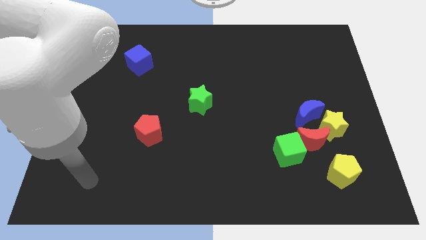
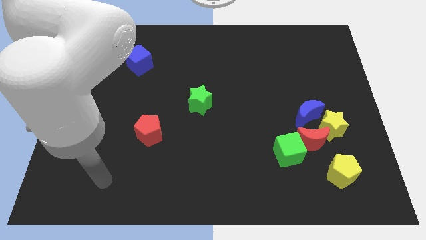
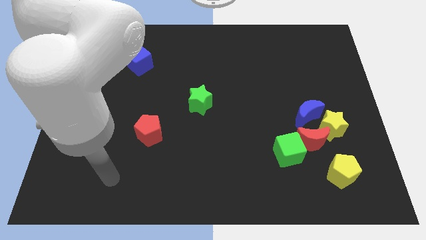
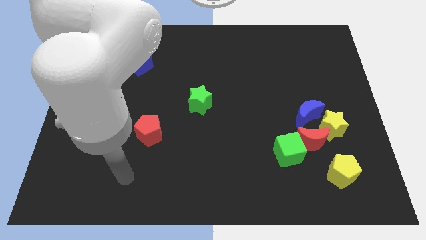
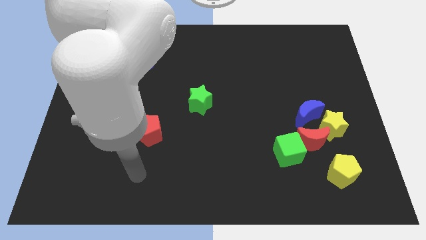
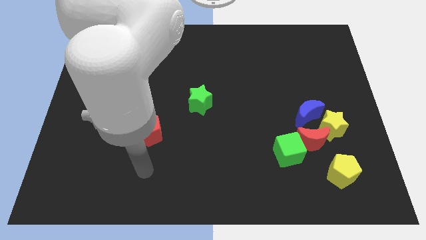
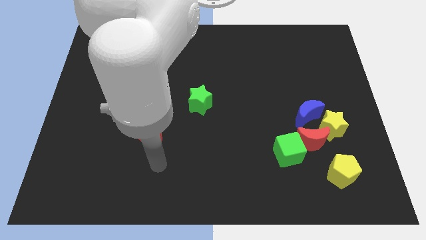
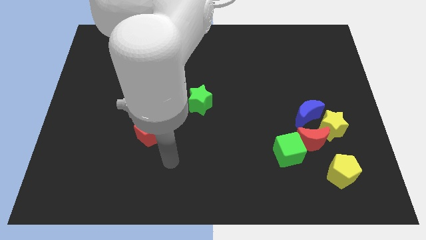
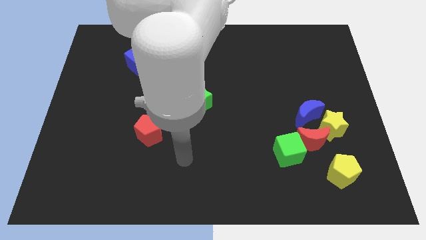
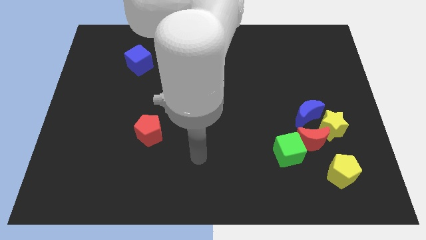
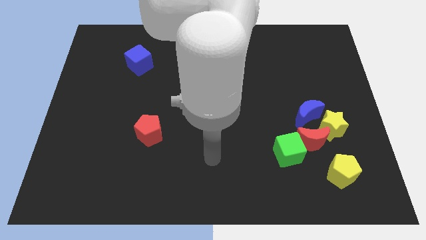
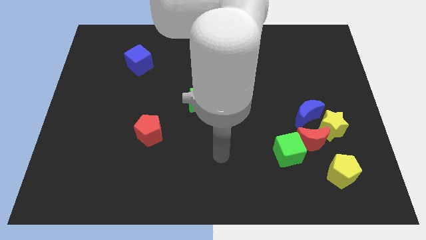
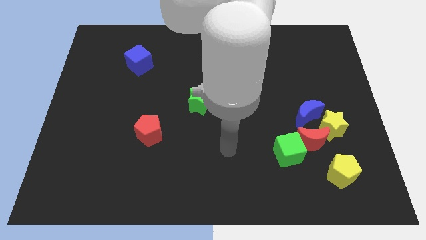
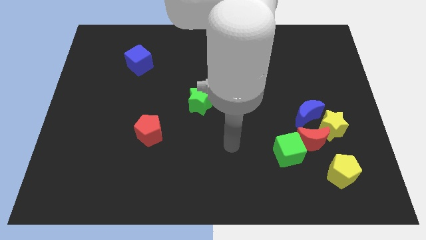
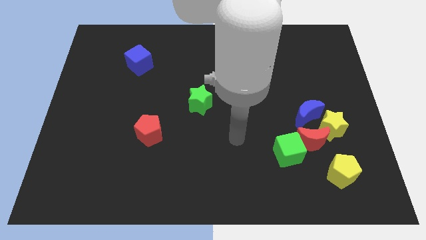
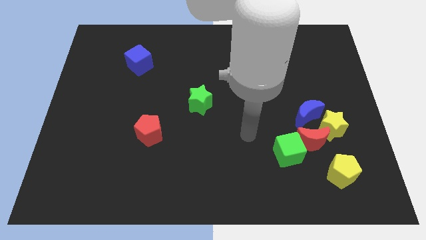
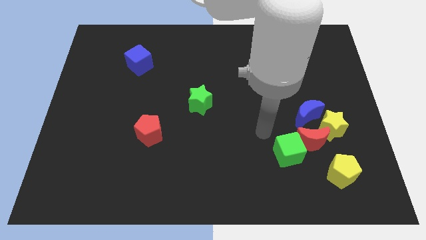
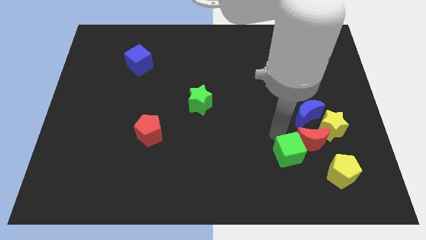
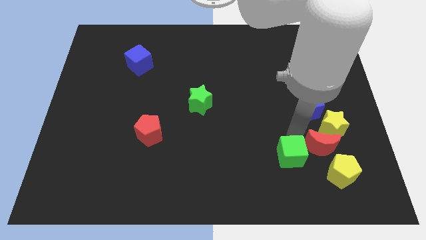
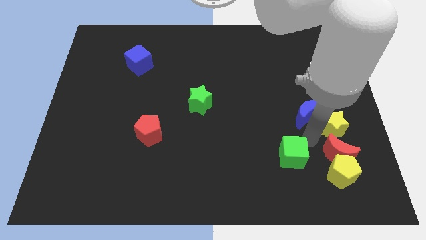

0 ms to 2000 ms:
pull the green cube apart from the red moon

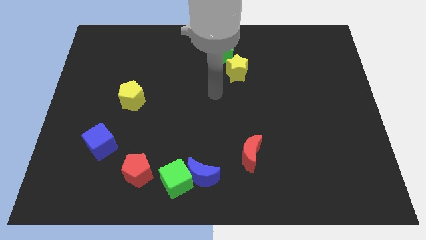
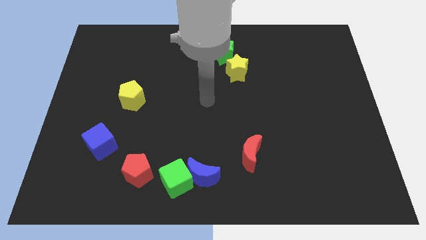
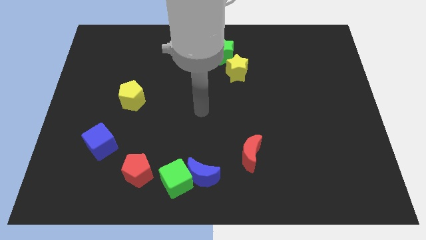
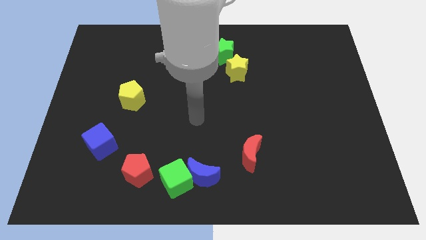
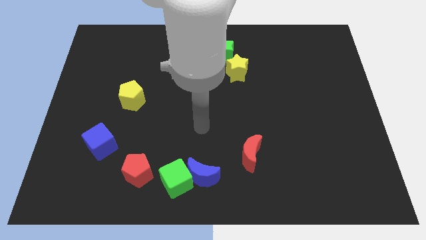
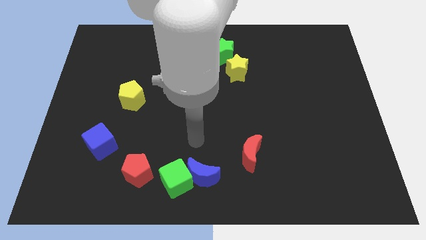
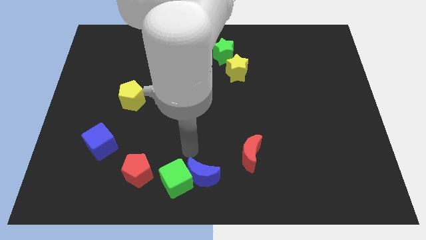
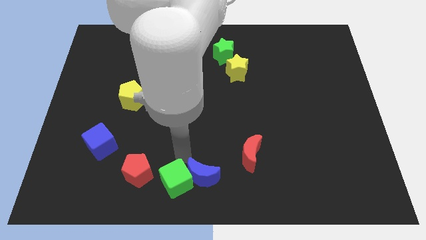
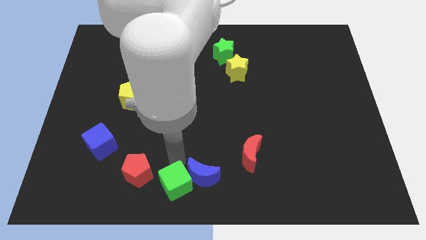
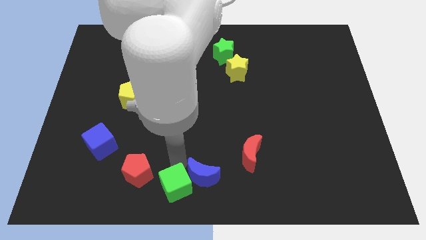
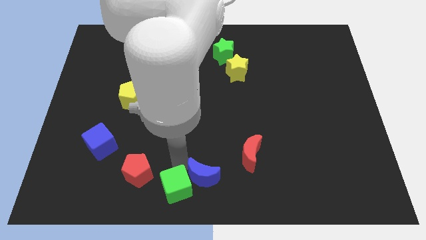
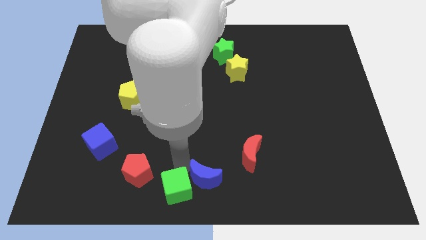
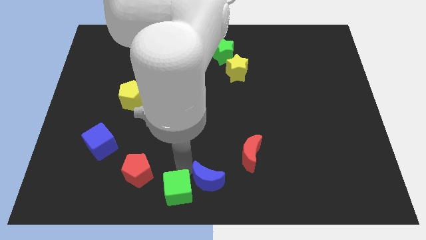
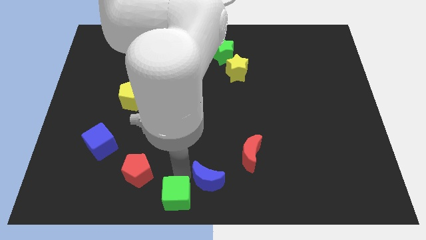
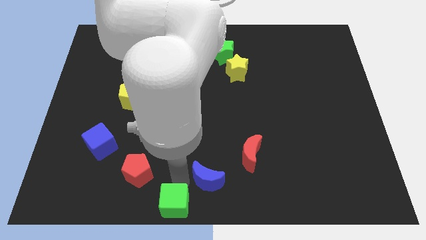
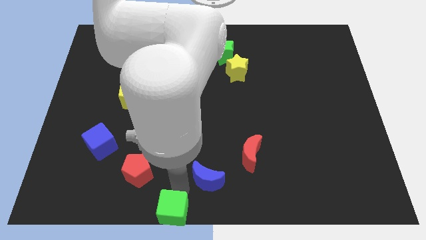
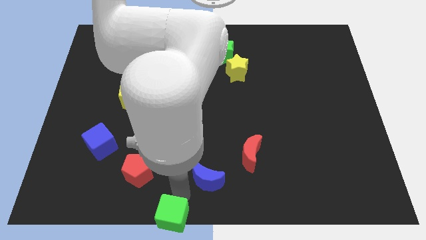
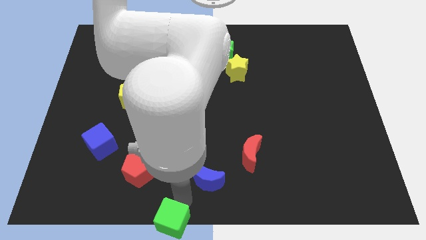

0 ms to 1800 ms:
separate the blue moon from the green cube

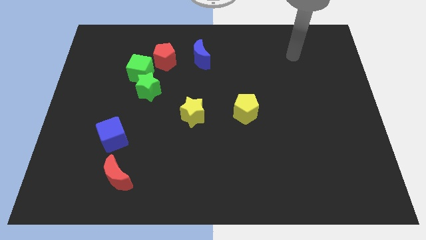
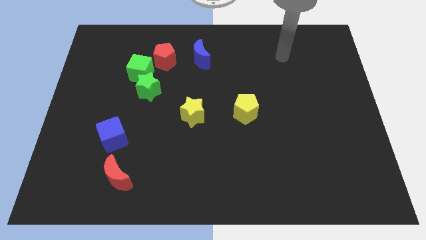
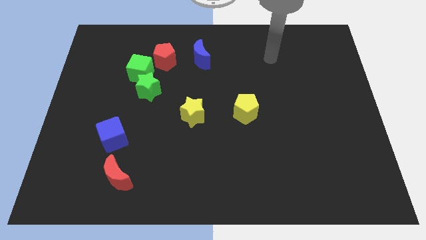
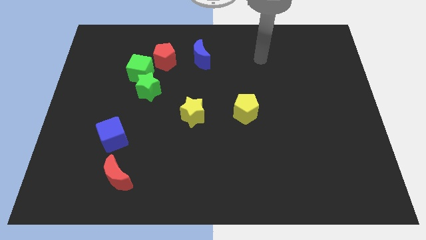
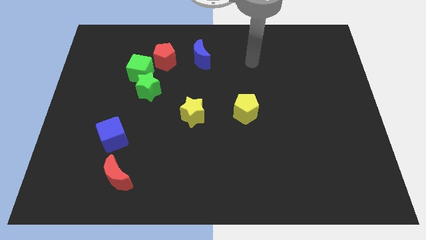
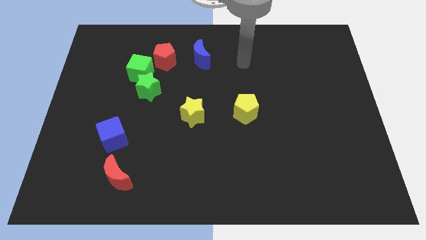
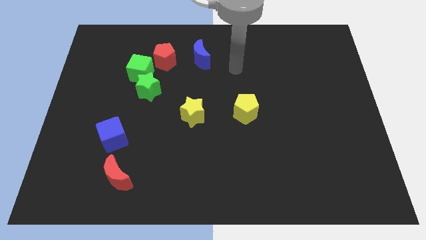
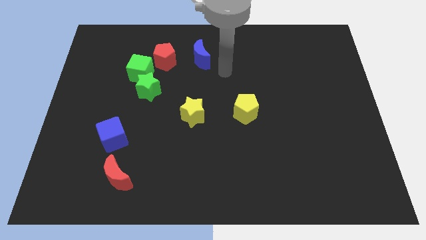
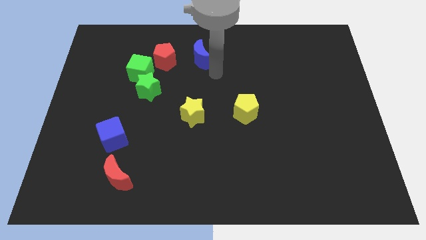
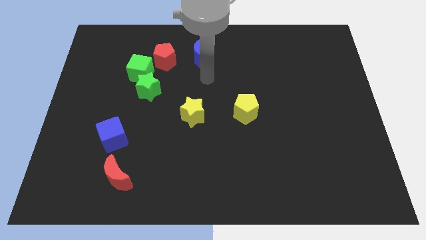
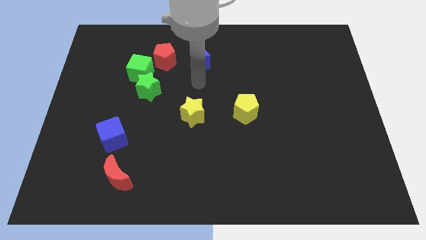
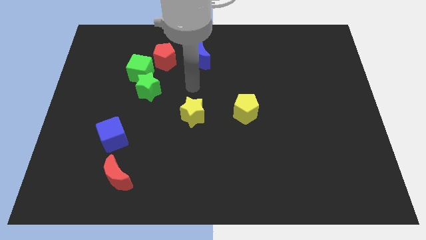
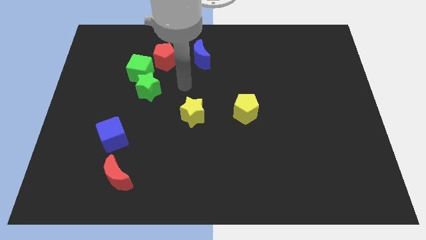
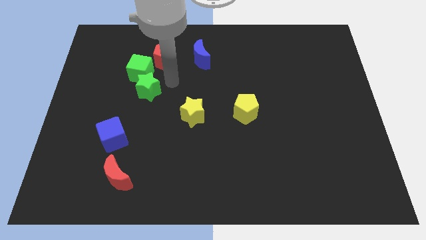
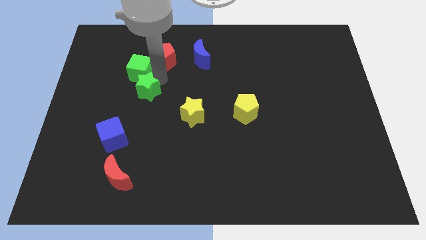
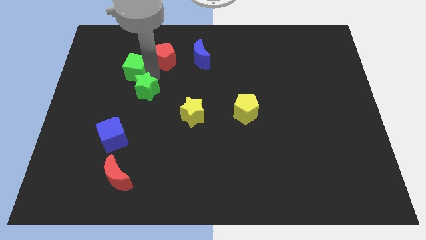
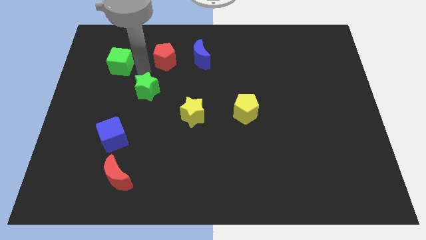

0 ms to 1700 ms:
pull the green star apart from the green cube

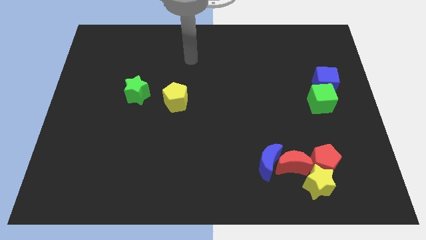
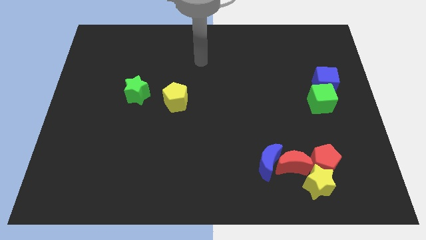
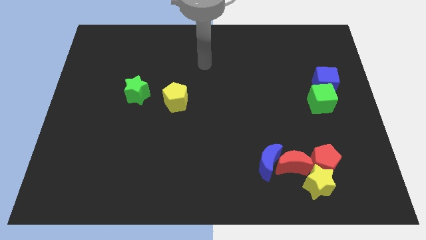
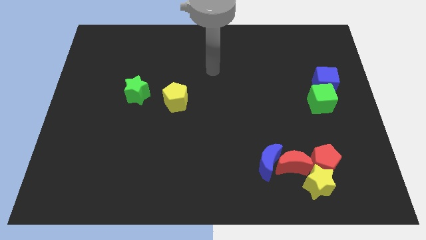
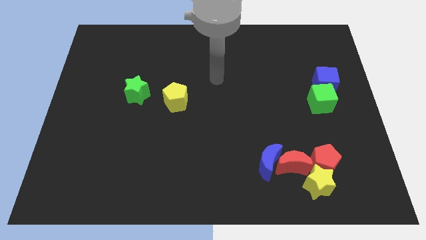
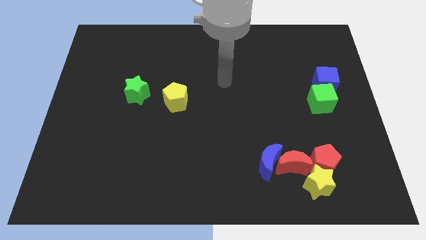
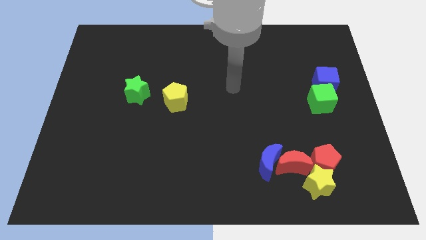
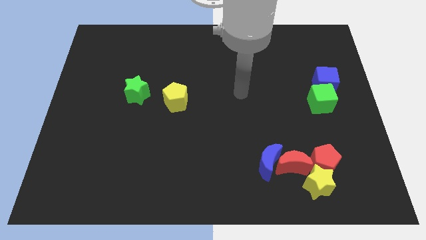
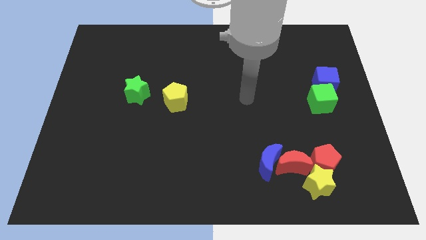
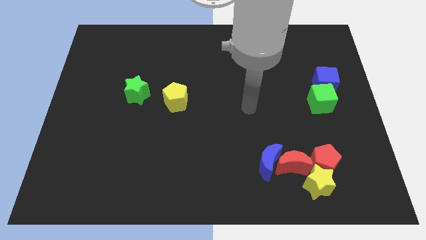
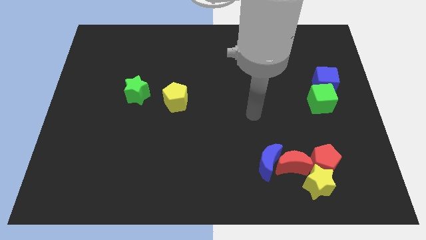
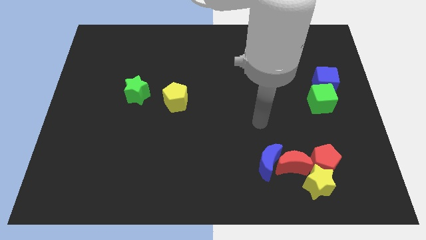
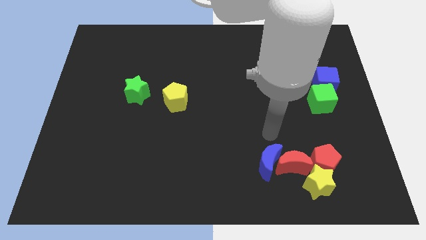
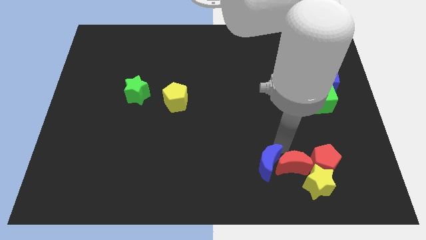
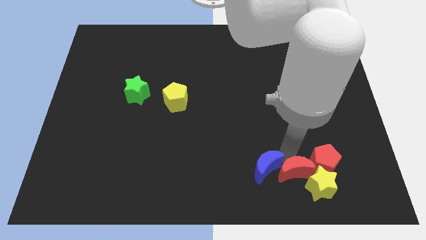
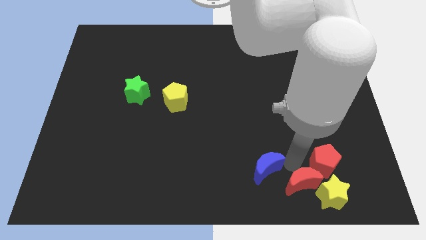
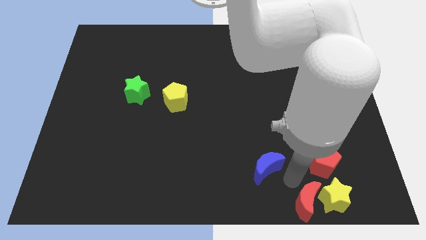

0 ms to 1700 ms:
separate the blue moon from the red moon

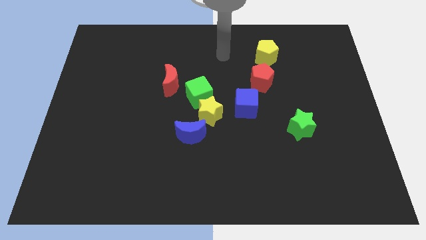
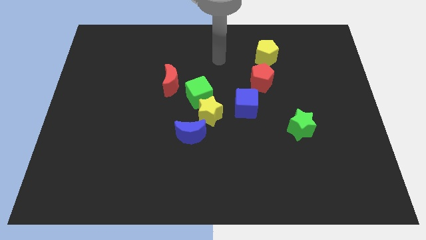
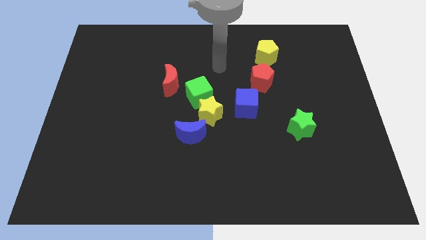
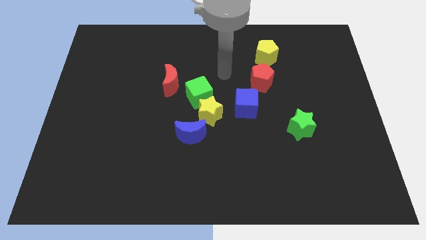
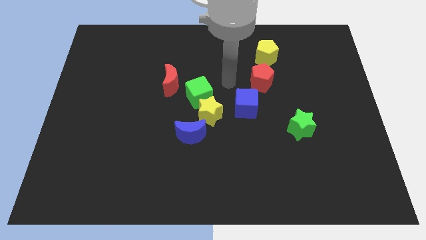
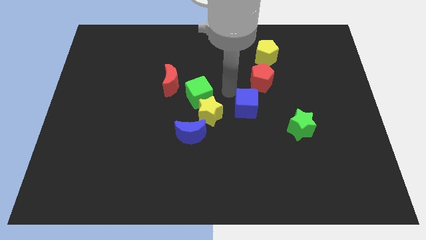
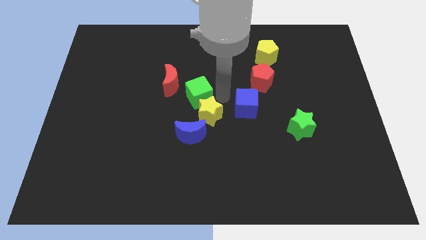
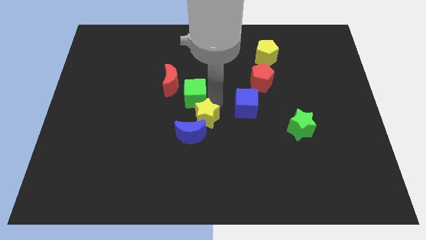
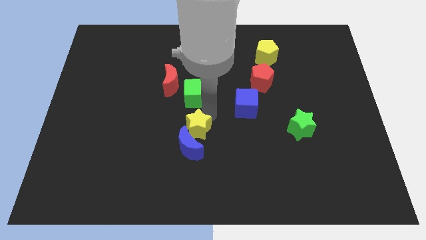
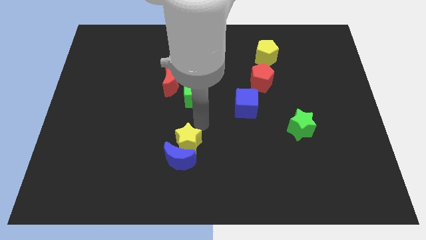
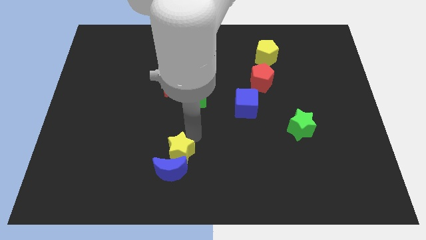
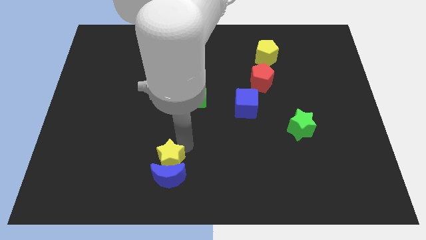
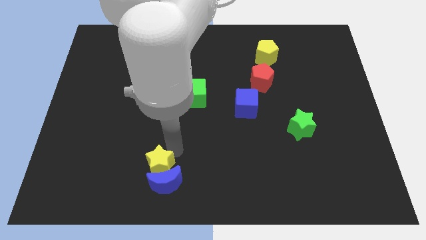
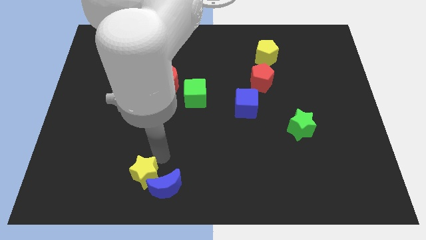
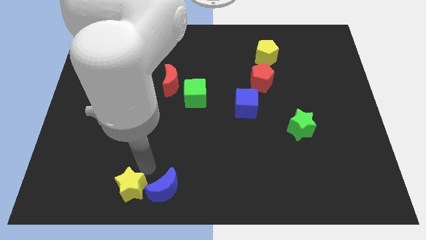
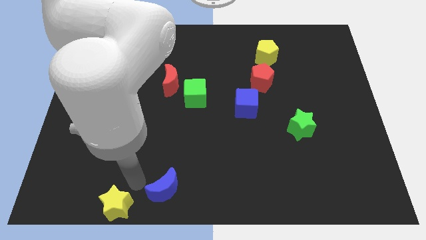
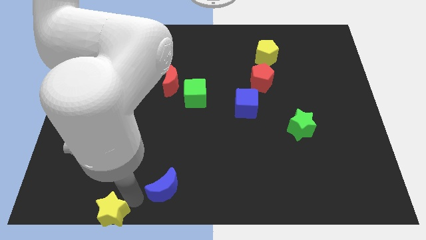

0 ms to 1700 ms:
move the blue moon away from the yellow star

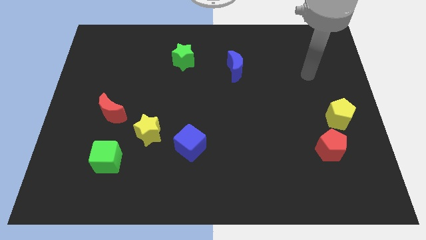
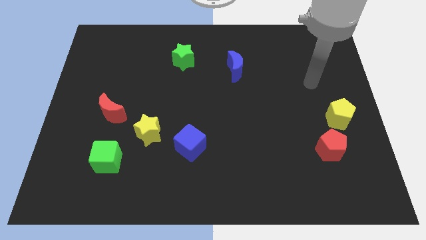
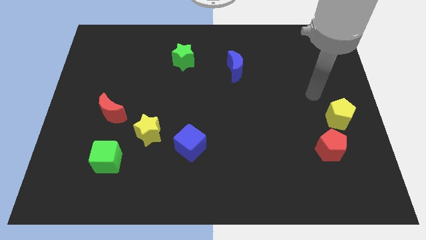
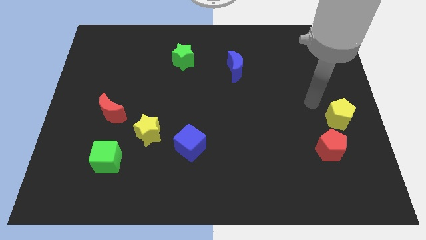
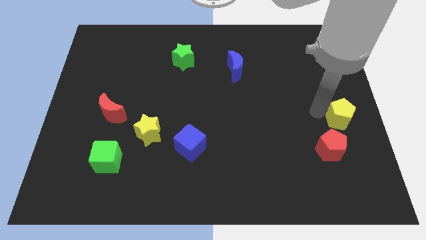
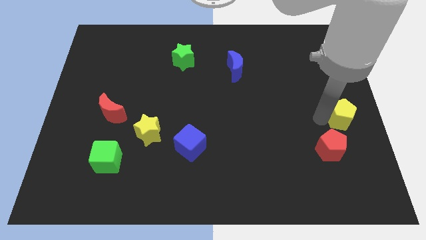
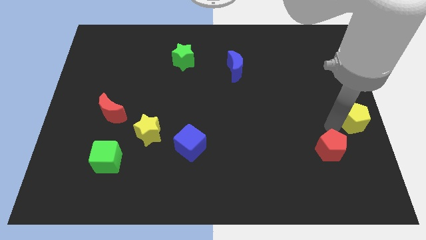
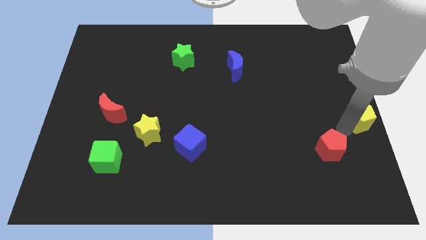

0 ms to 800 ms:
separate the red pentagon from the yellow pentagon
